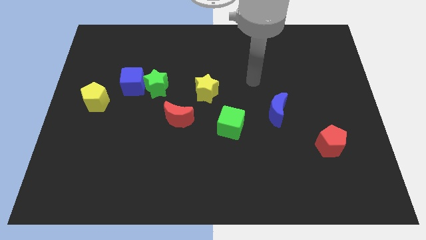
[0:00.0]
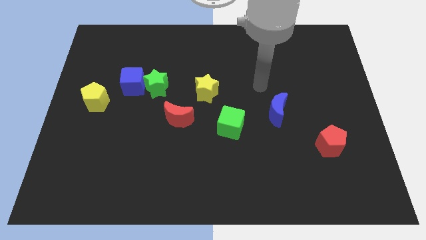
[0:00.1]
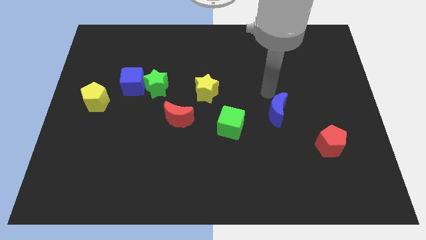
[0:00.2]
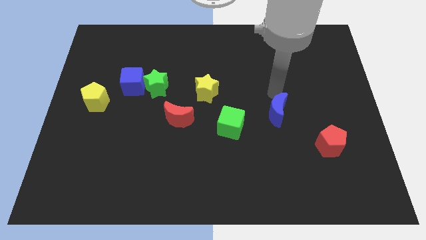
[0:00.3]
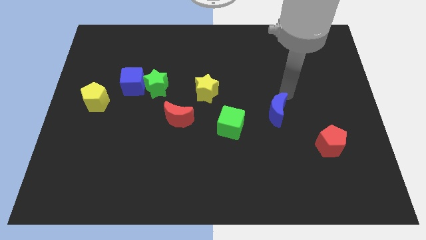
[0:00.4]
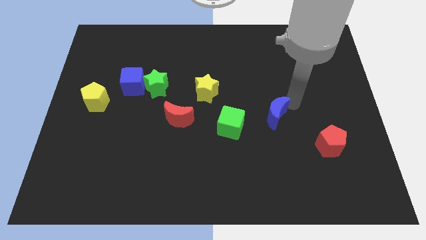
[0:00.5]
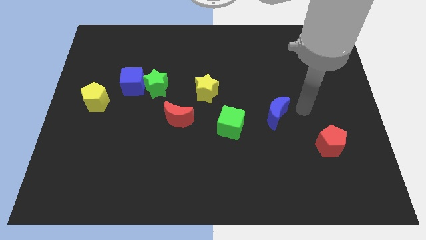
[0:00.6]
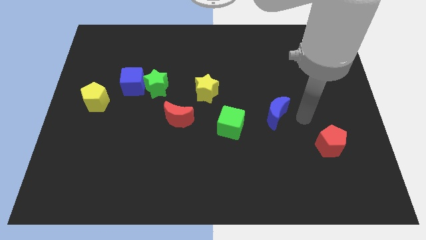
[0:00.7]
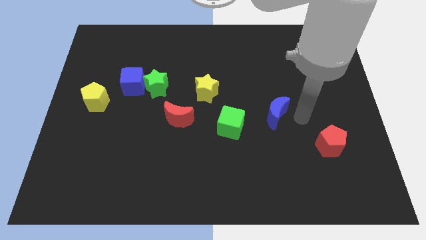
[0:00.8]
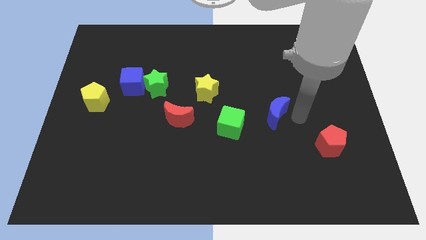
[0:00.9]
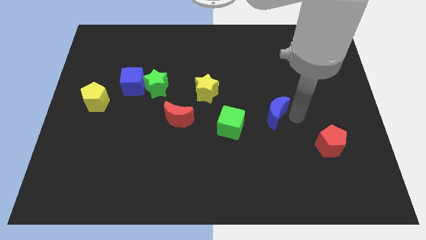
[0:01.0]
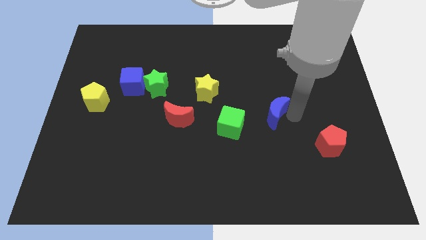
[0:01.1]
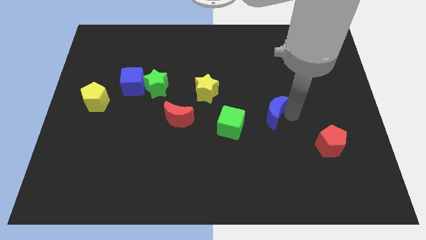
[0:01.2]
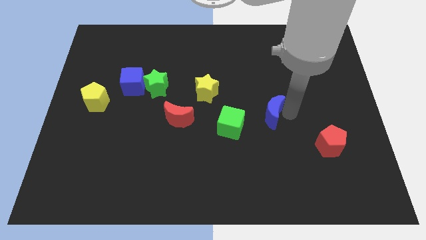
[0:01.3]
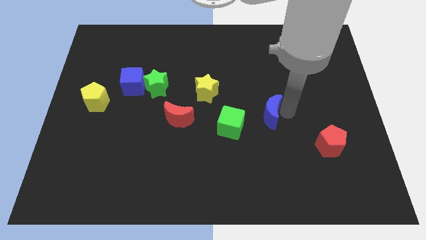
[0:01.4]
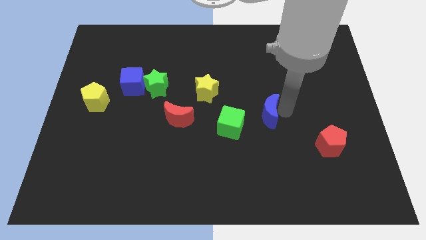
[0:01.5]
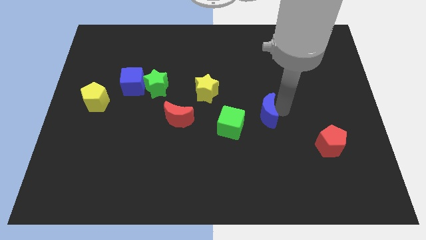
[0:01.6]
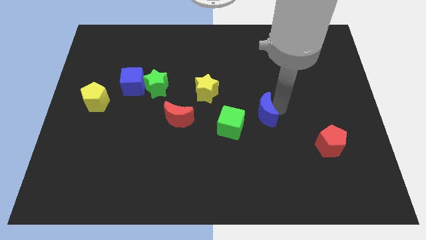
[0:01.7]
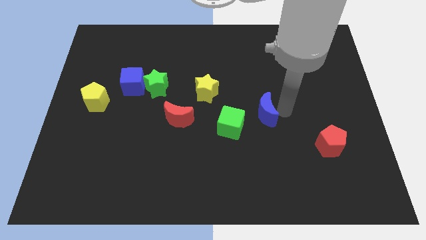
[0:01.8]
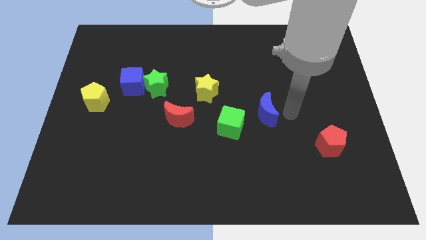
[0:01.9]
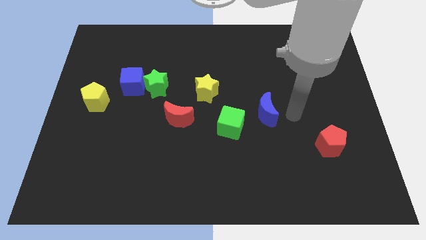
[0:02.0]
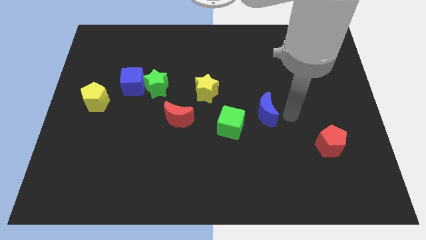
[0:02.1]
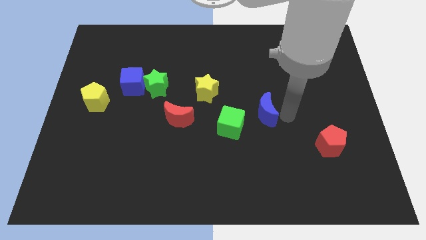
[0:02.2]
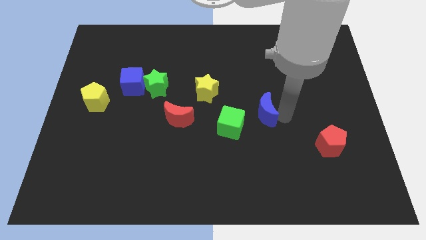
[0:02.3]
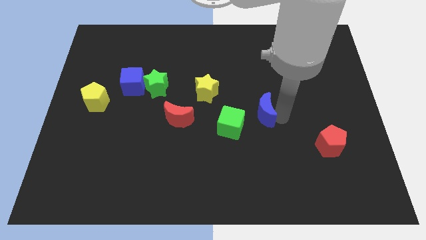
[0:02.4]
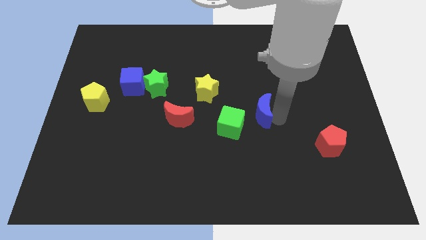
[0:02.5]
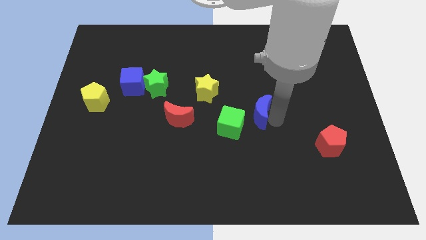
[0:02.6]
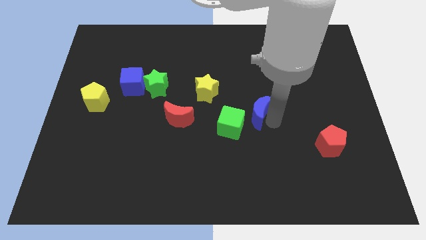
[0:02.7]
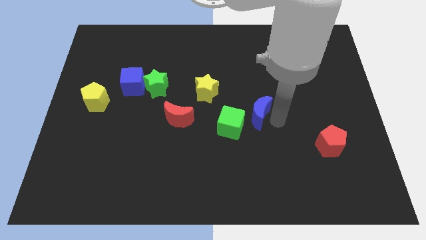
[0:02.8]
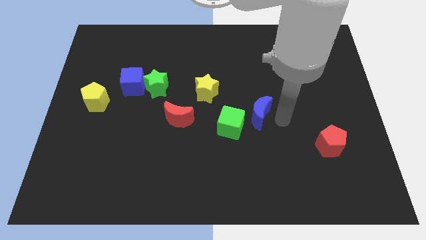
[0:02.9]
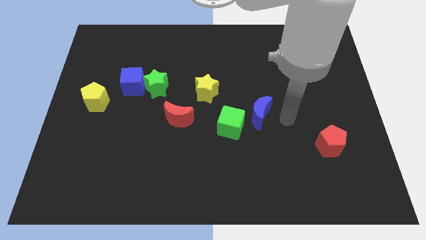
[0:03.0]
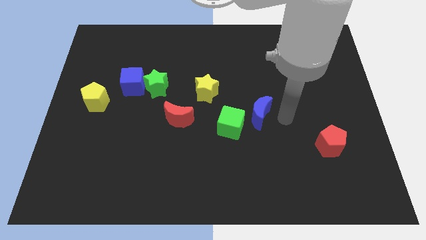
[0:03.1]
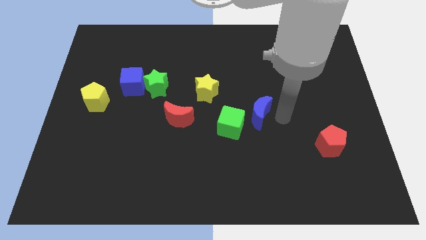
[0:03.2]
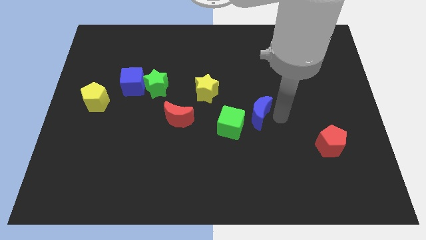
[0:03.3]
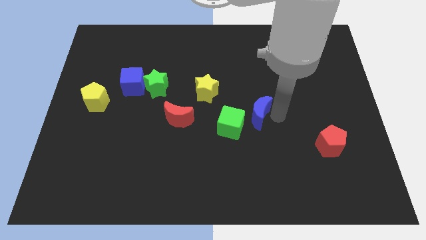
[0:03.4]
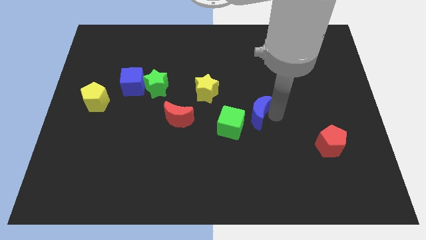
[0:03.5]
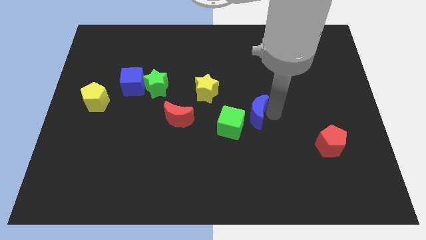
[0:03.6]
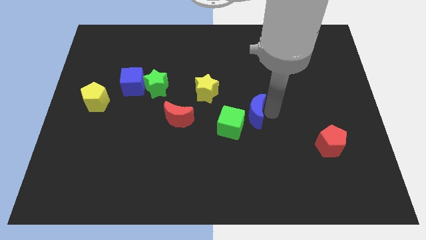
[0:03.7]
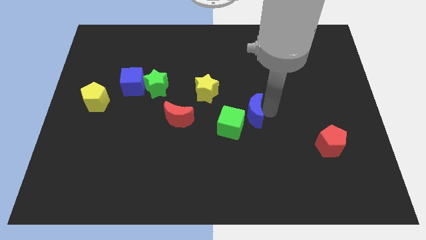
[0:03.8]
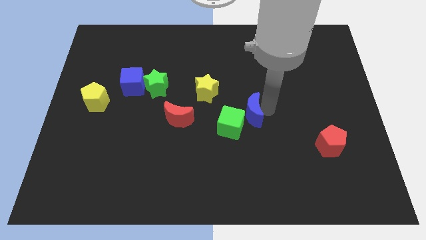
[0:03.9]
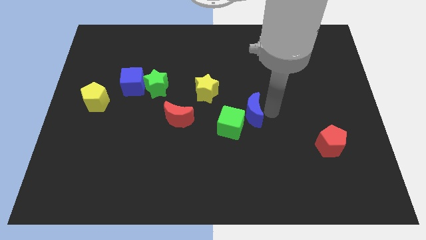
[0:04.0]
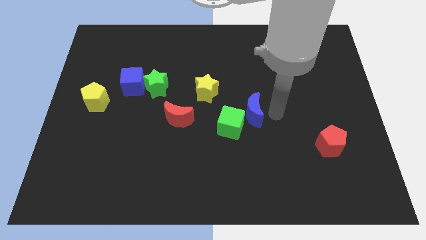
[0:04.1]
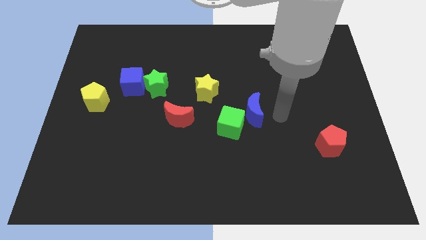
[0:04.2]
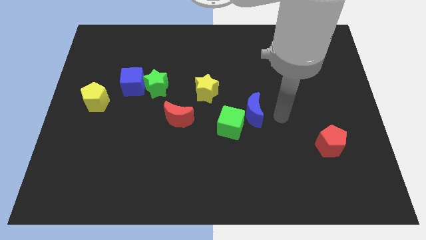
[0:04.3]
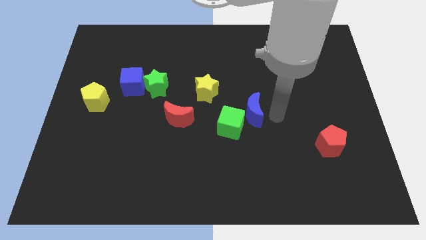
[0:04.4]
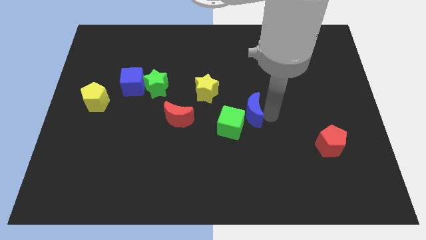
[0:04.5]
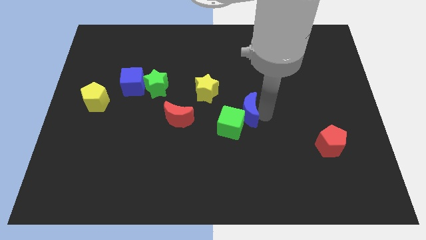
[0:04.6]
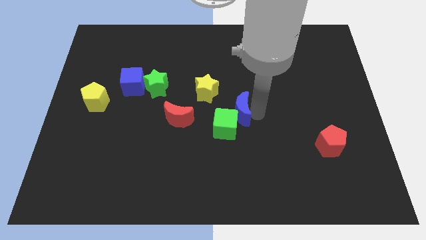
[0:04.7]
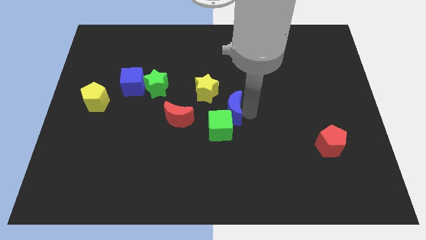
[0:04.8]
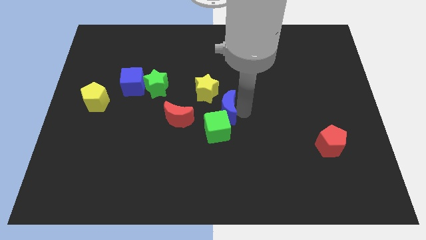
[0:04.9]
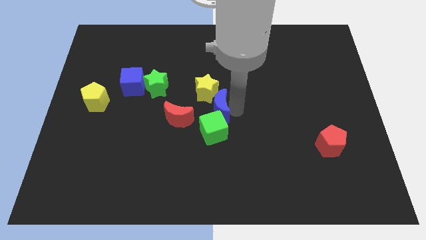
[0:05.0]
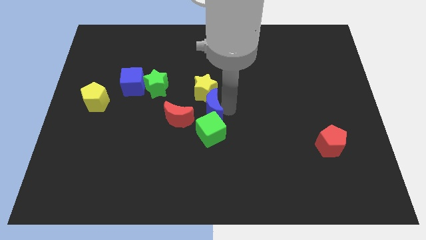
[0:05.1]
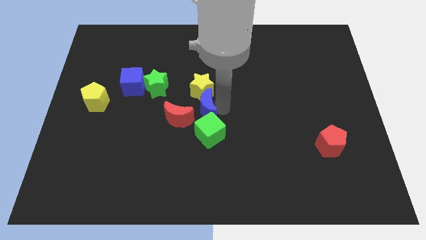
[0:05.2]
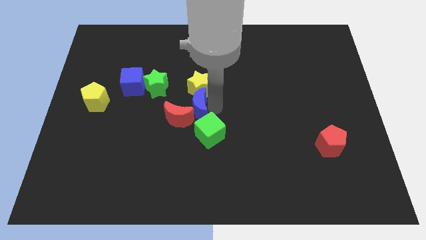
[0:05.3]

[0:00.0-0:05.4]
push the blue moon next to the red moon

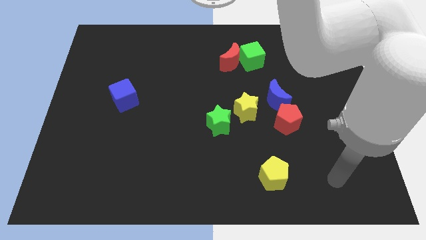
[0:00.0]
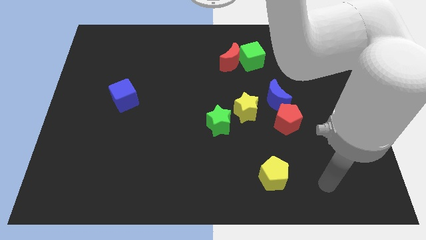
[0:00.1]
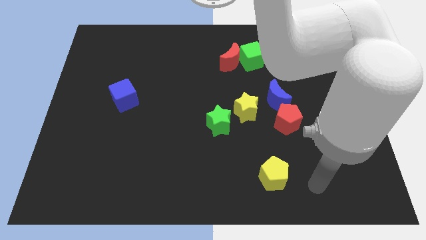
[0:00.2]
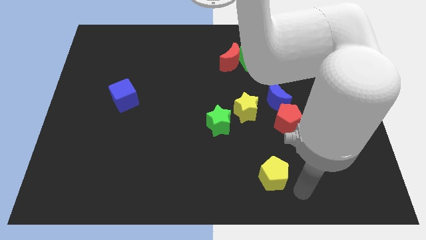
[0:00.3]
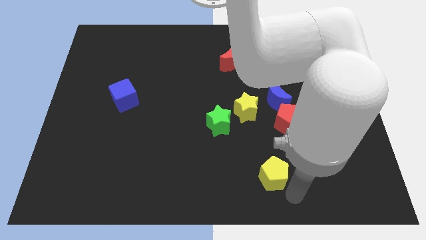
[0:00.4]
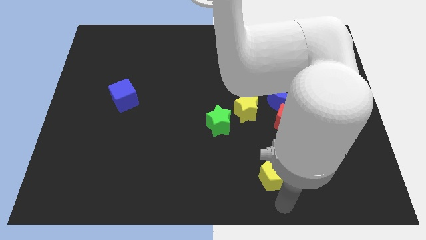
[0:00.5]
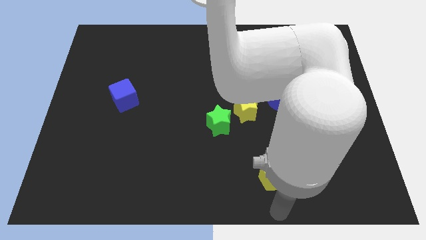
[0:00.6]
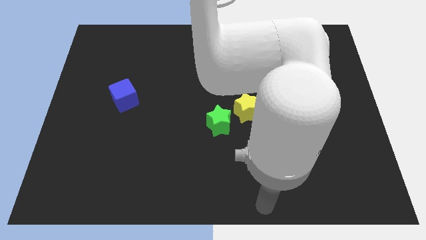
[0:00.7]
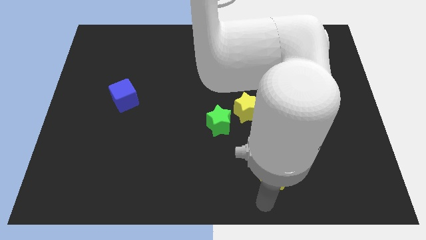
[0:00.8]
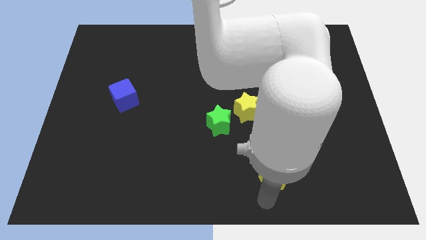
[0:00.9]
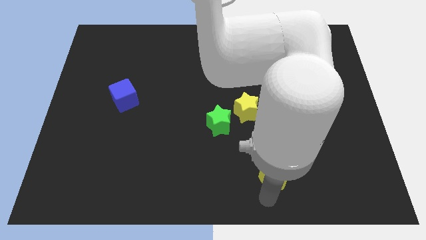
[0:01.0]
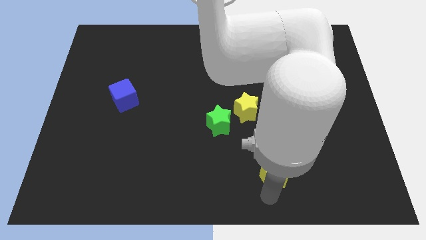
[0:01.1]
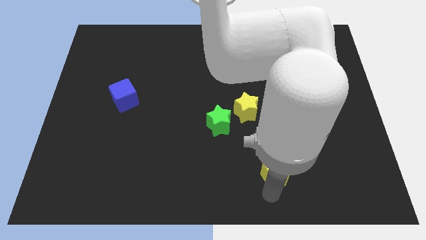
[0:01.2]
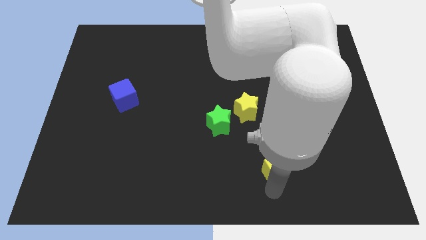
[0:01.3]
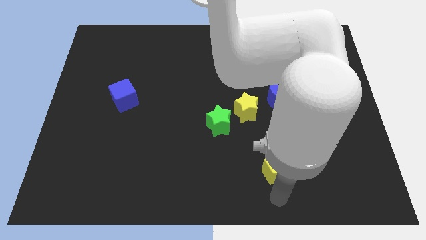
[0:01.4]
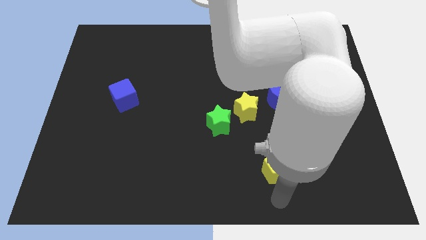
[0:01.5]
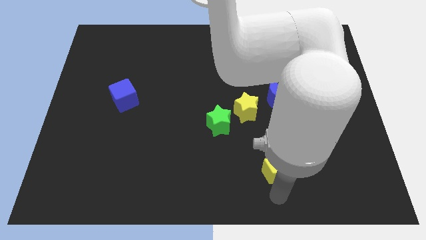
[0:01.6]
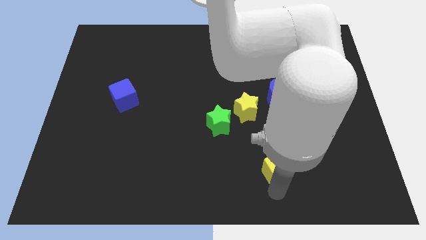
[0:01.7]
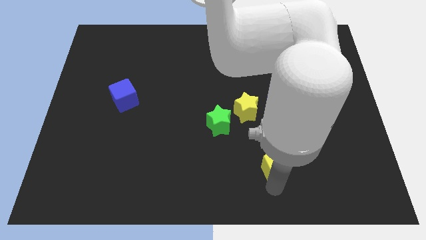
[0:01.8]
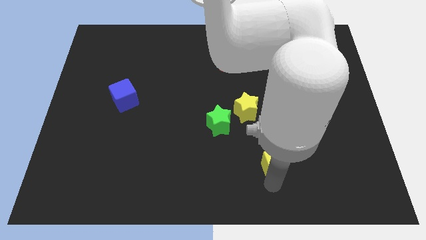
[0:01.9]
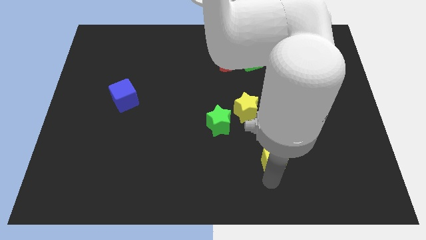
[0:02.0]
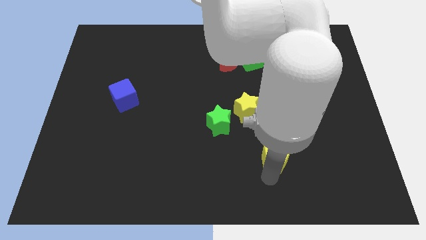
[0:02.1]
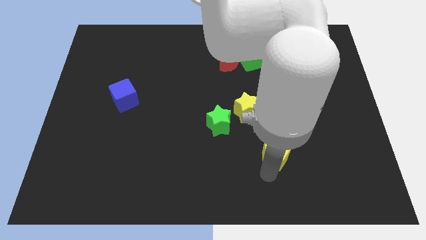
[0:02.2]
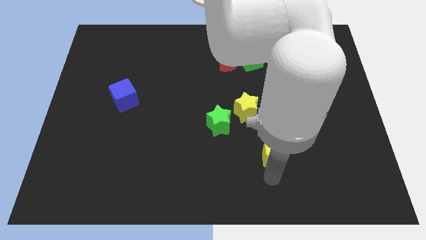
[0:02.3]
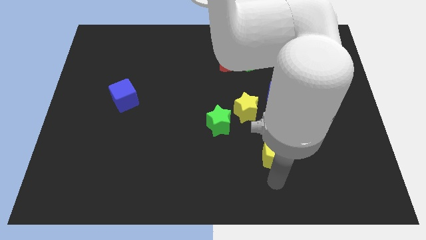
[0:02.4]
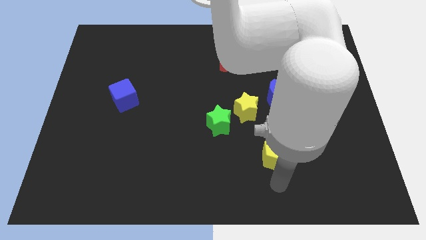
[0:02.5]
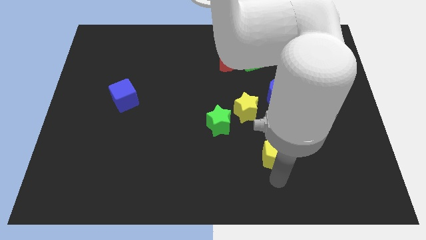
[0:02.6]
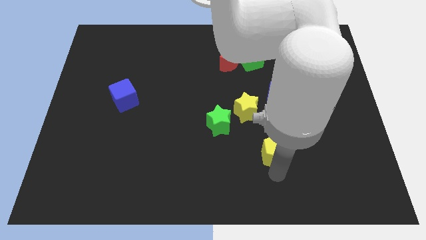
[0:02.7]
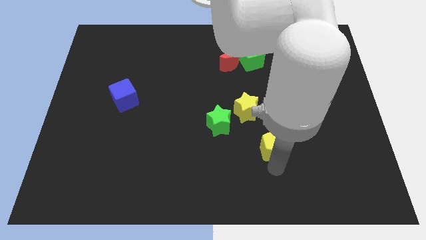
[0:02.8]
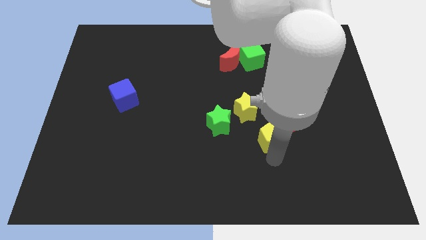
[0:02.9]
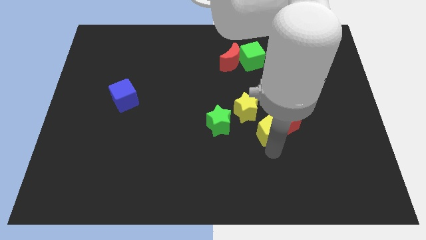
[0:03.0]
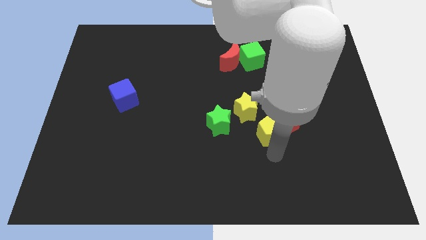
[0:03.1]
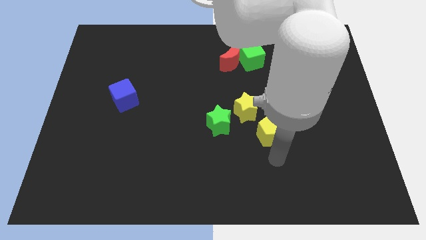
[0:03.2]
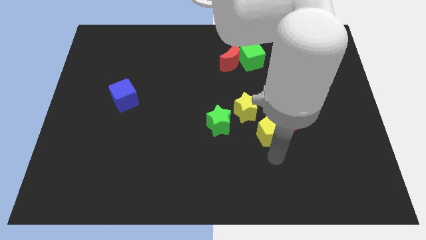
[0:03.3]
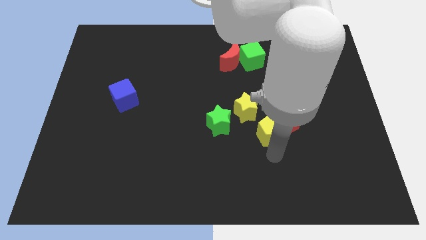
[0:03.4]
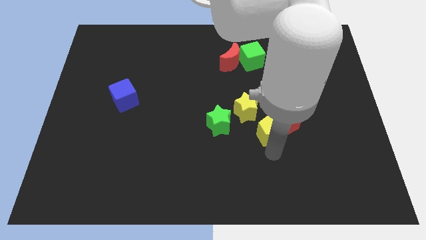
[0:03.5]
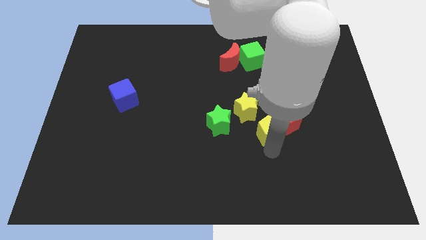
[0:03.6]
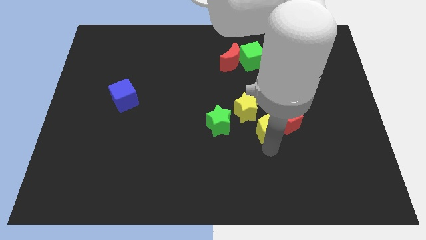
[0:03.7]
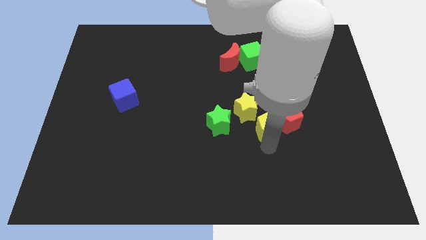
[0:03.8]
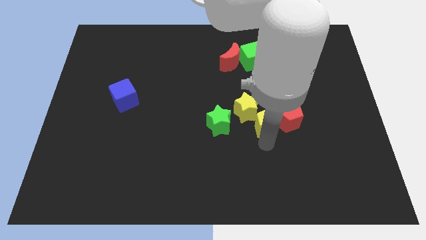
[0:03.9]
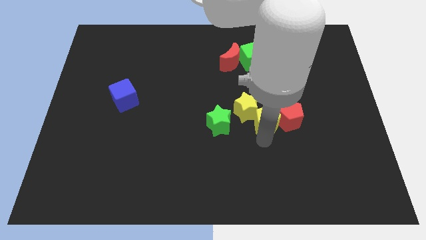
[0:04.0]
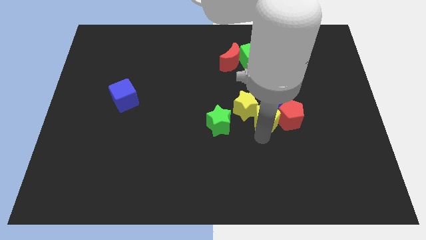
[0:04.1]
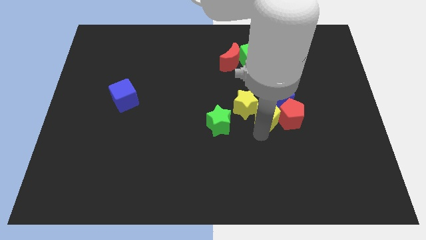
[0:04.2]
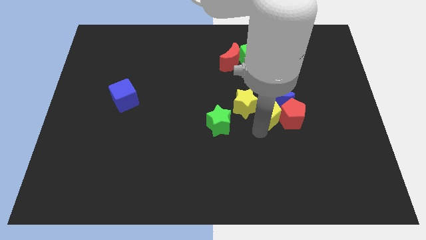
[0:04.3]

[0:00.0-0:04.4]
move the yellow pentagon to the blue moon
